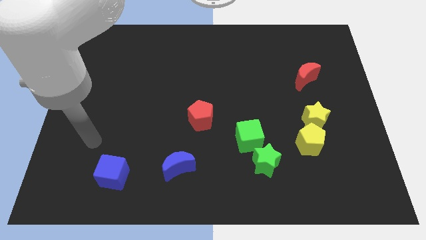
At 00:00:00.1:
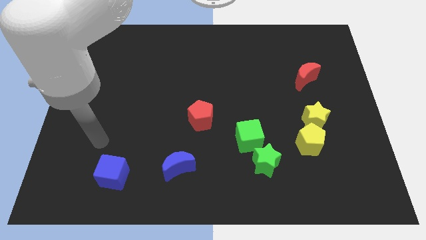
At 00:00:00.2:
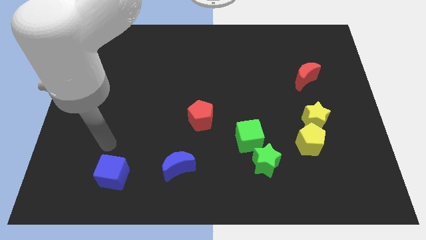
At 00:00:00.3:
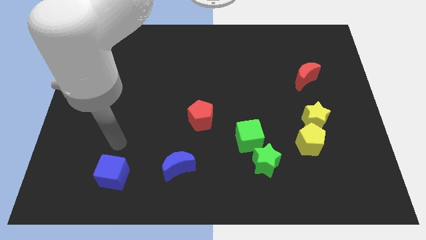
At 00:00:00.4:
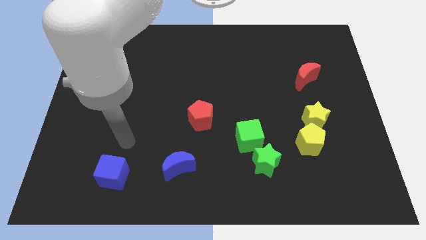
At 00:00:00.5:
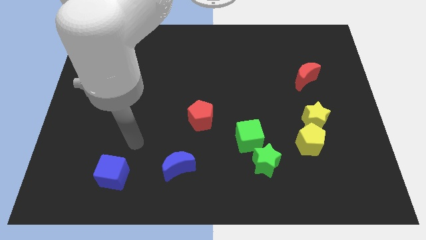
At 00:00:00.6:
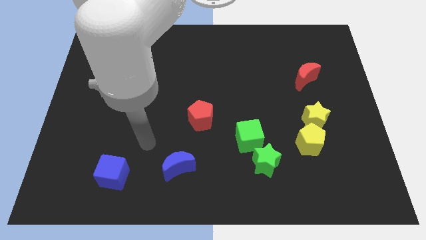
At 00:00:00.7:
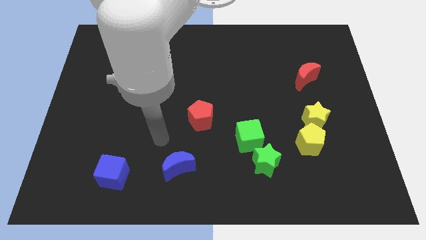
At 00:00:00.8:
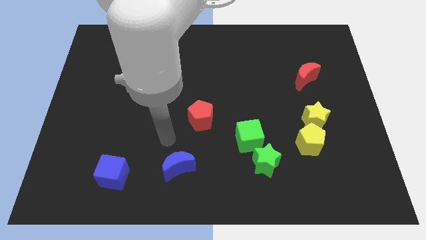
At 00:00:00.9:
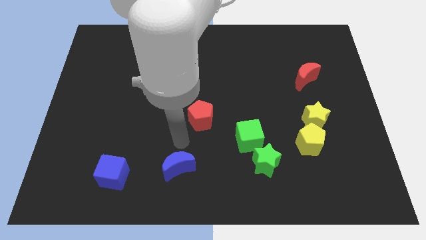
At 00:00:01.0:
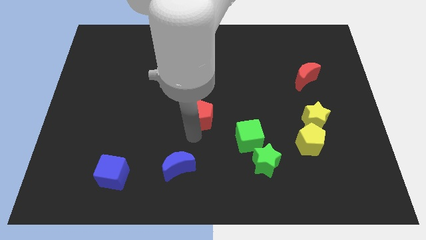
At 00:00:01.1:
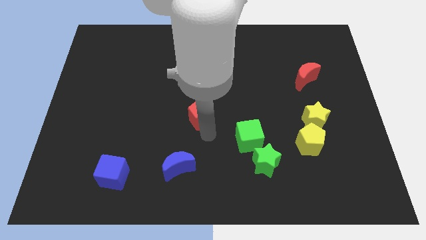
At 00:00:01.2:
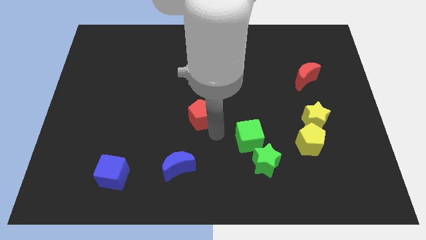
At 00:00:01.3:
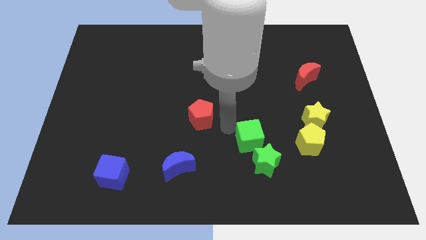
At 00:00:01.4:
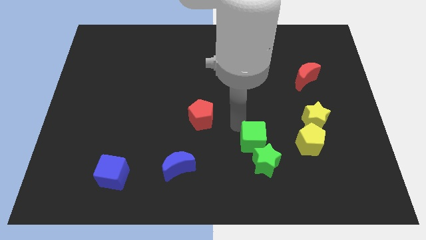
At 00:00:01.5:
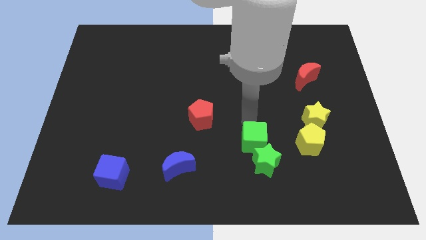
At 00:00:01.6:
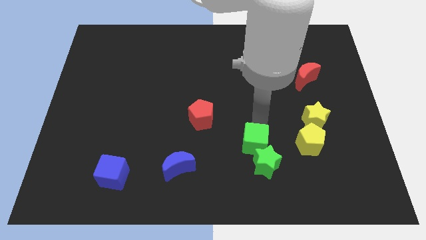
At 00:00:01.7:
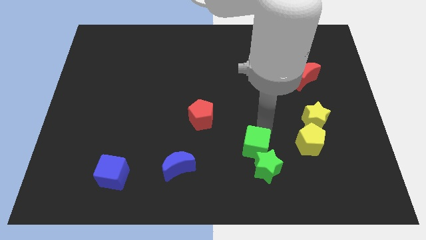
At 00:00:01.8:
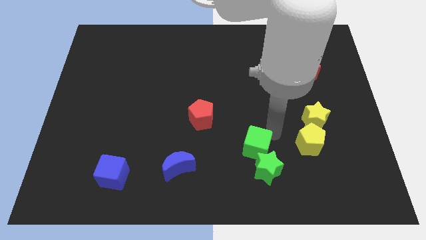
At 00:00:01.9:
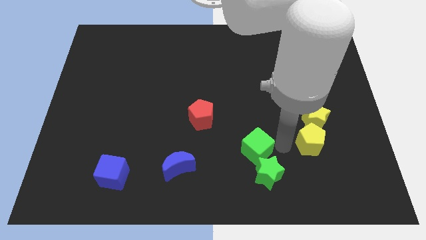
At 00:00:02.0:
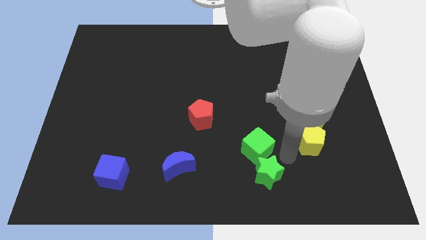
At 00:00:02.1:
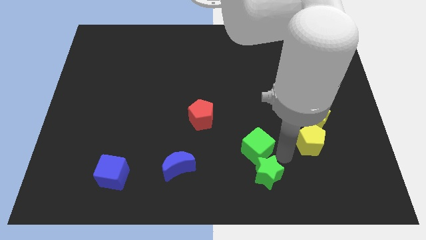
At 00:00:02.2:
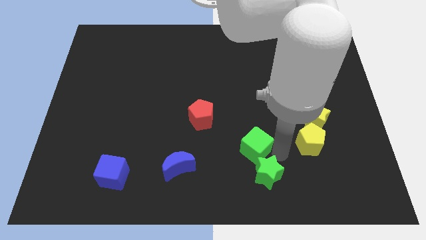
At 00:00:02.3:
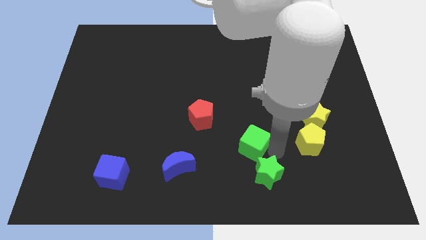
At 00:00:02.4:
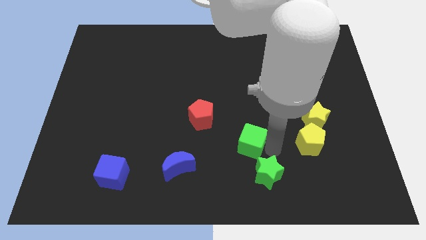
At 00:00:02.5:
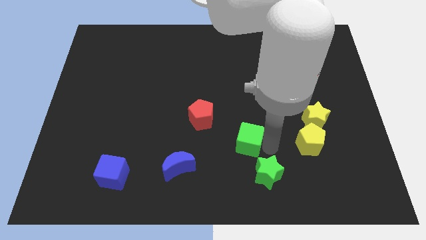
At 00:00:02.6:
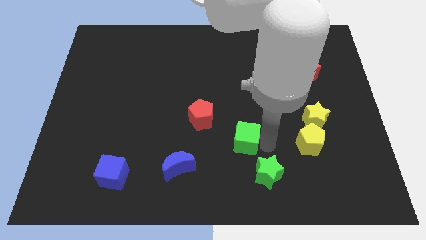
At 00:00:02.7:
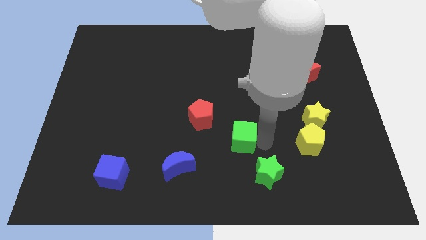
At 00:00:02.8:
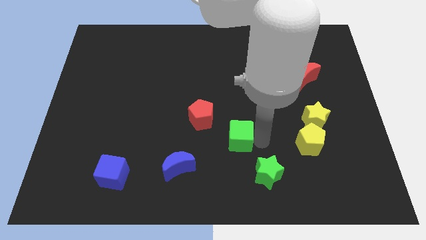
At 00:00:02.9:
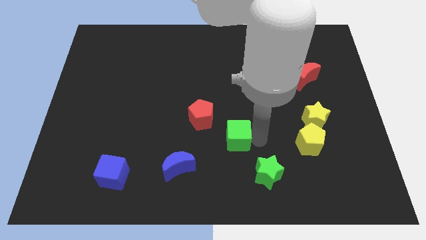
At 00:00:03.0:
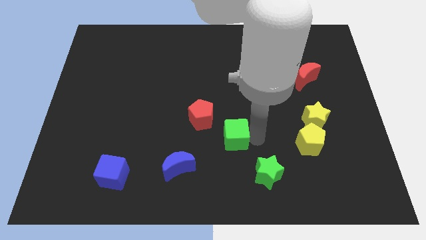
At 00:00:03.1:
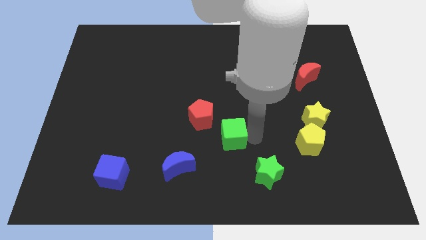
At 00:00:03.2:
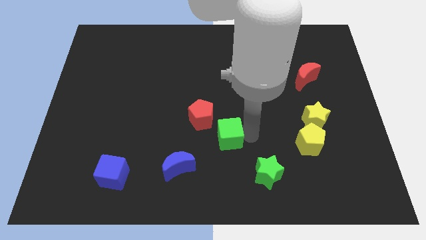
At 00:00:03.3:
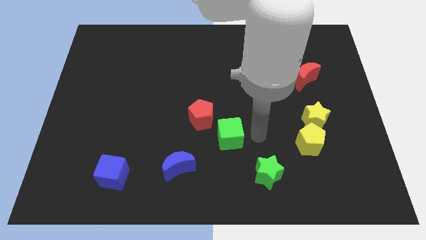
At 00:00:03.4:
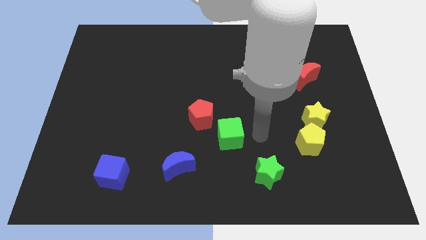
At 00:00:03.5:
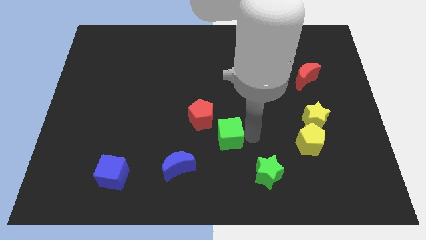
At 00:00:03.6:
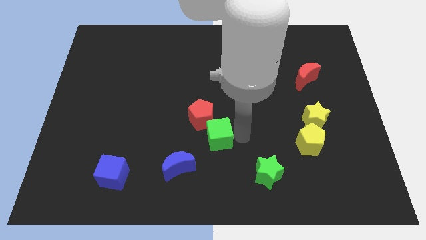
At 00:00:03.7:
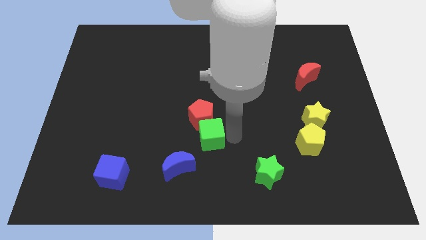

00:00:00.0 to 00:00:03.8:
slide the green cube a bit left

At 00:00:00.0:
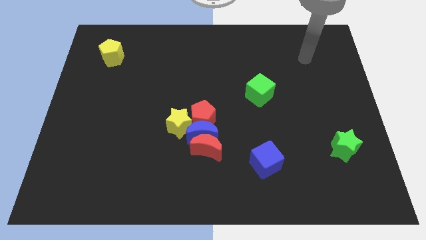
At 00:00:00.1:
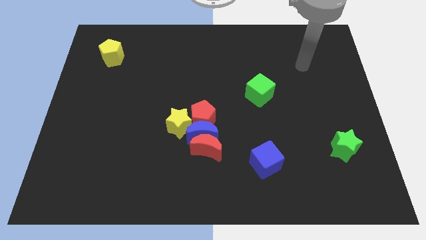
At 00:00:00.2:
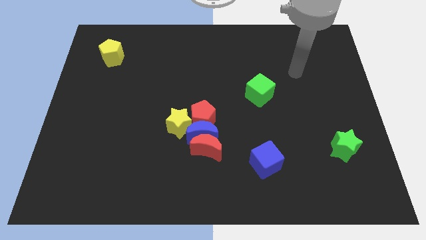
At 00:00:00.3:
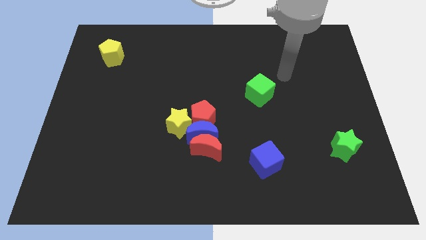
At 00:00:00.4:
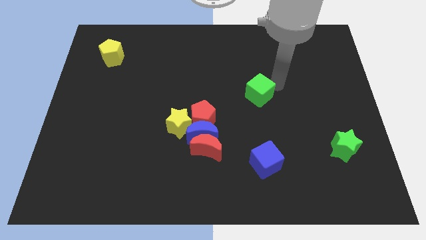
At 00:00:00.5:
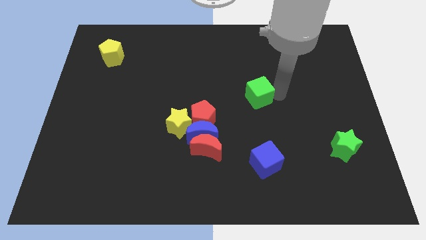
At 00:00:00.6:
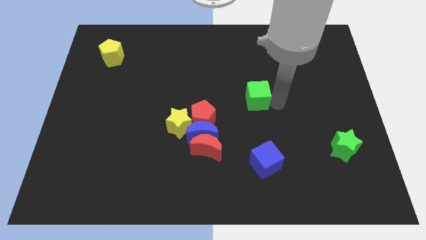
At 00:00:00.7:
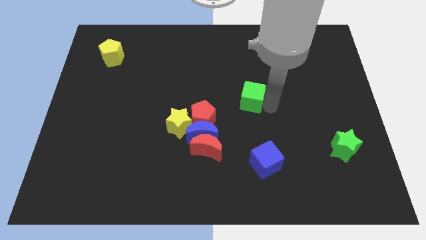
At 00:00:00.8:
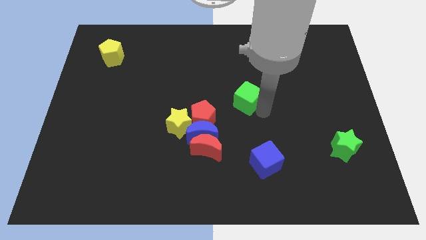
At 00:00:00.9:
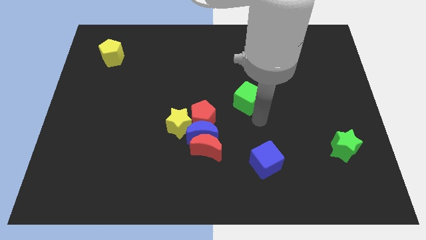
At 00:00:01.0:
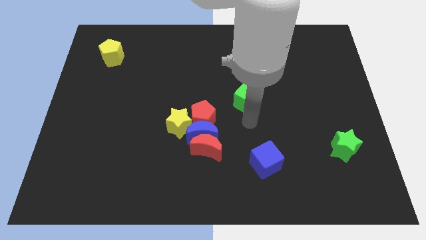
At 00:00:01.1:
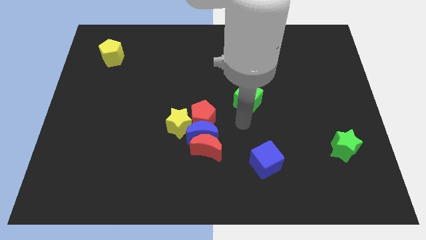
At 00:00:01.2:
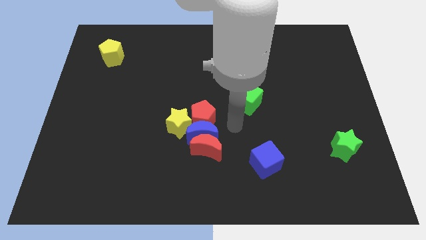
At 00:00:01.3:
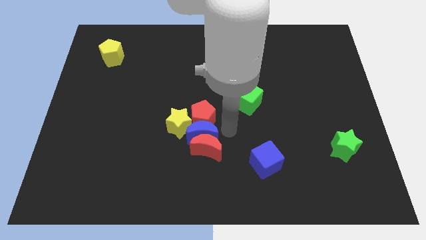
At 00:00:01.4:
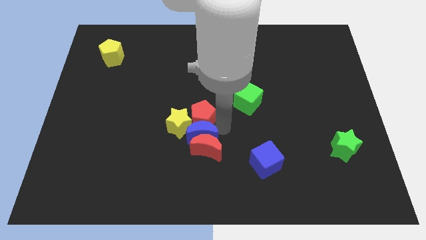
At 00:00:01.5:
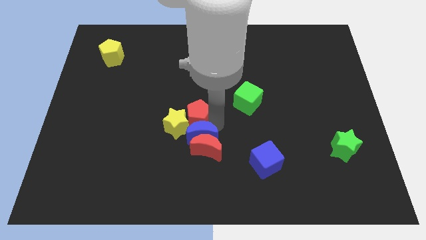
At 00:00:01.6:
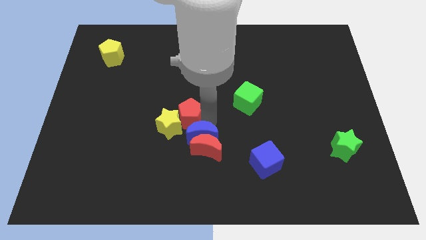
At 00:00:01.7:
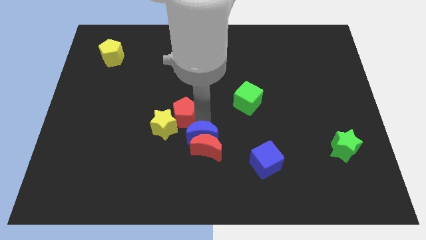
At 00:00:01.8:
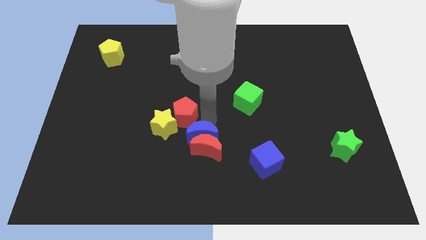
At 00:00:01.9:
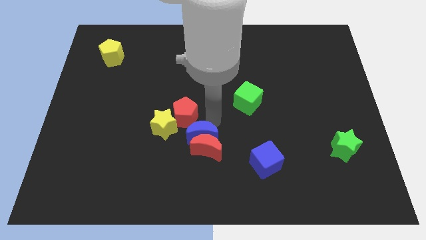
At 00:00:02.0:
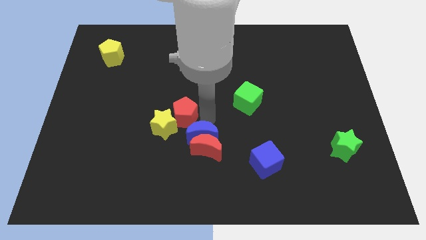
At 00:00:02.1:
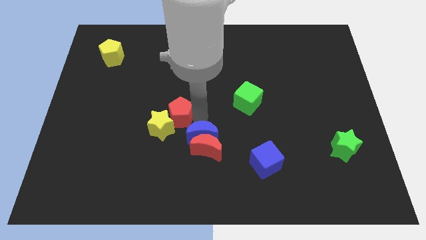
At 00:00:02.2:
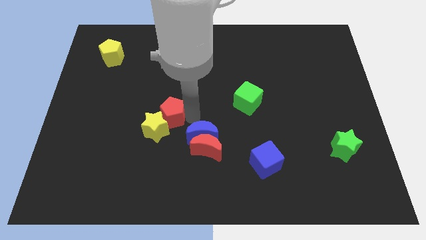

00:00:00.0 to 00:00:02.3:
slightly push the red pentagon to the left

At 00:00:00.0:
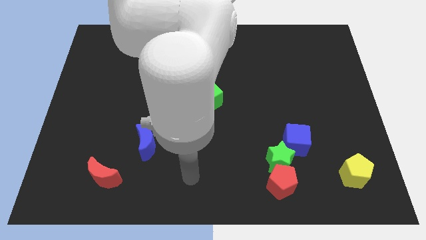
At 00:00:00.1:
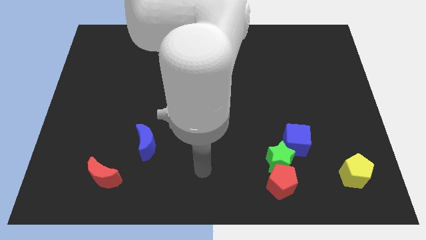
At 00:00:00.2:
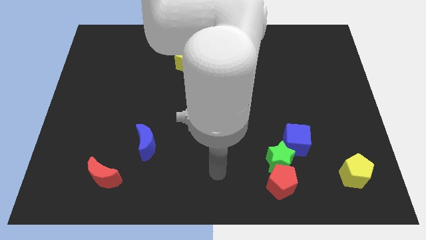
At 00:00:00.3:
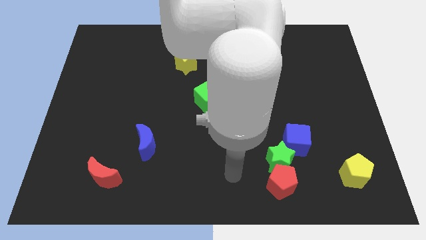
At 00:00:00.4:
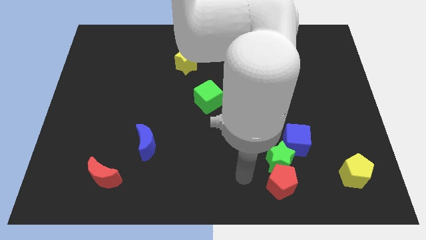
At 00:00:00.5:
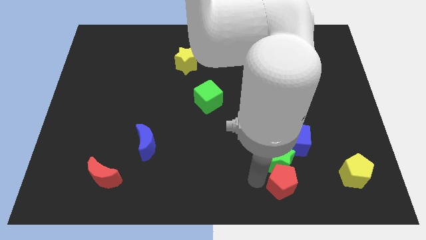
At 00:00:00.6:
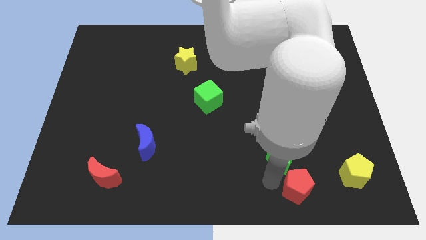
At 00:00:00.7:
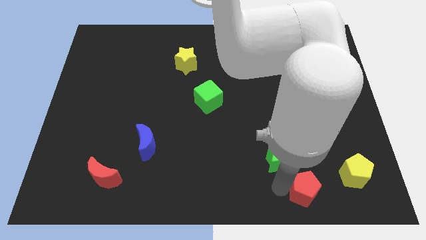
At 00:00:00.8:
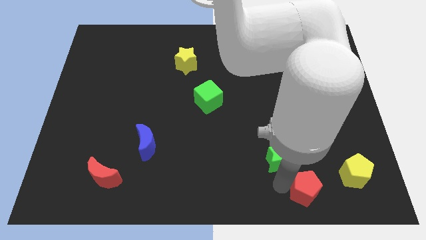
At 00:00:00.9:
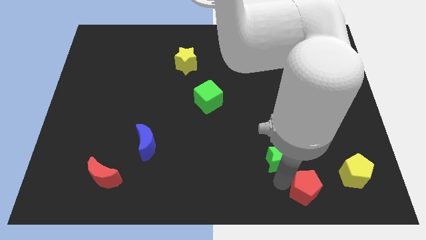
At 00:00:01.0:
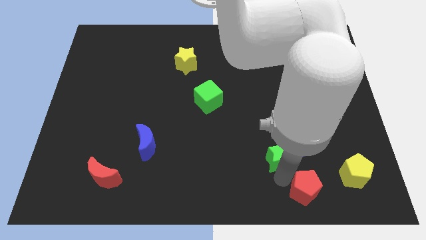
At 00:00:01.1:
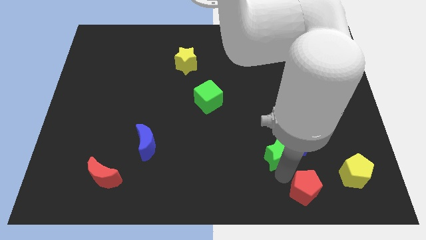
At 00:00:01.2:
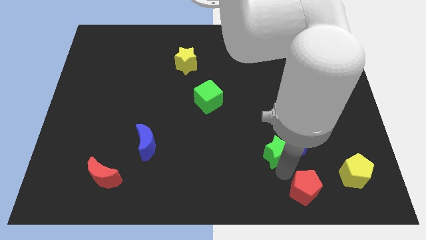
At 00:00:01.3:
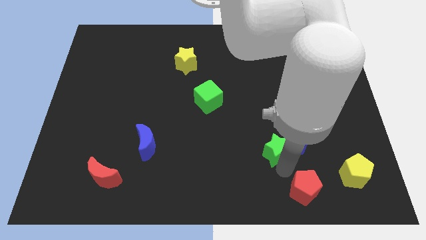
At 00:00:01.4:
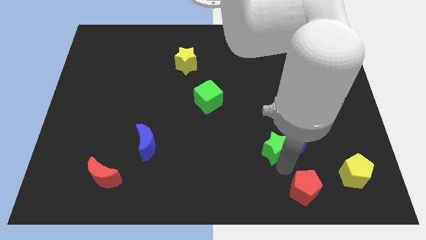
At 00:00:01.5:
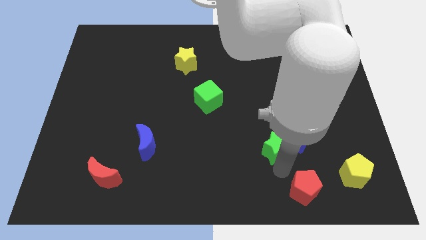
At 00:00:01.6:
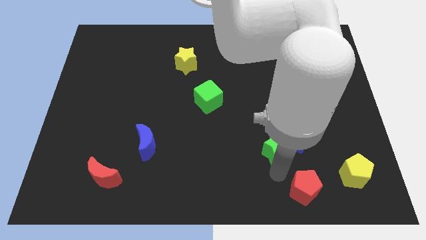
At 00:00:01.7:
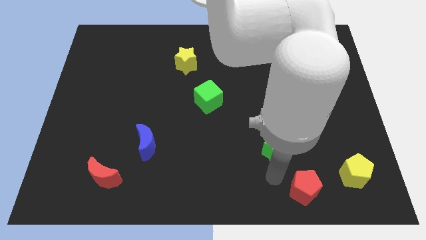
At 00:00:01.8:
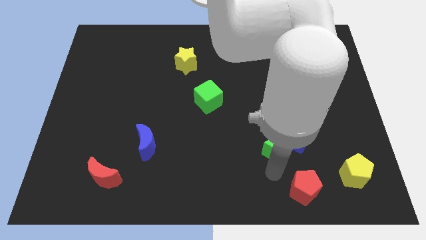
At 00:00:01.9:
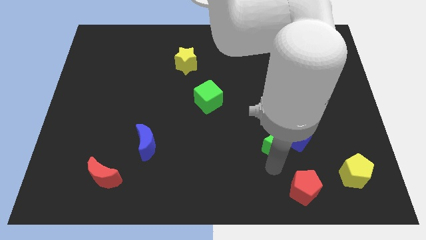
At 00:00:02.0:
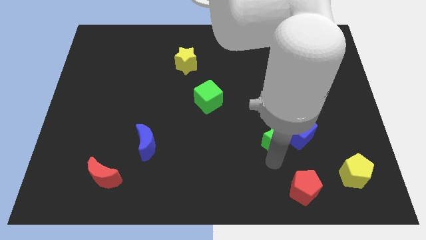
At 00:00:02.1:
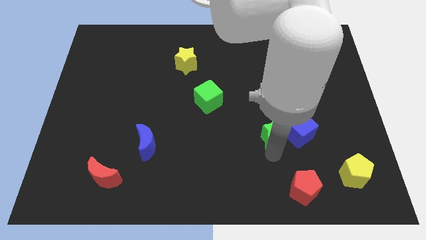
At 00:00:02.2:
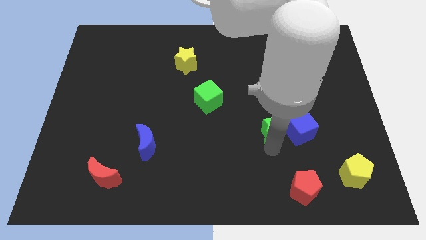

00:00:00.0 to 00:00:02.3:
slightly push the green star up
